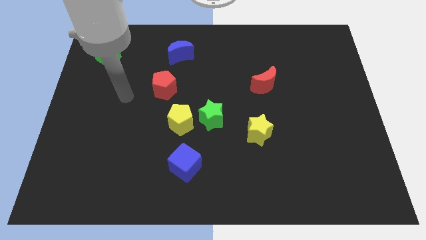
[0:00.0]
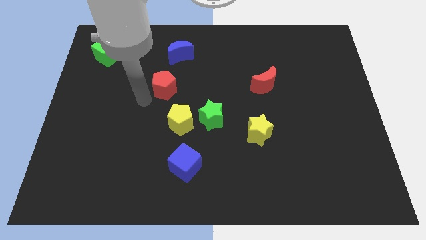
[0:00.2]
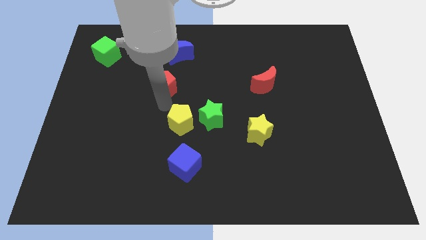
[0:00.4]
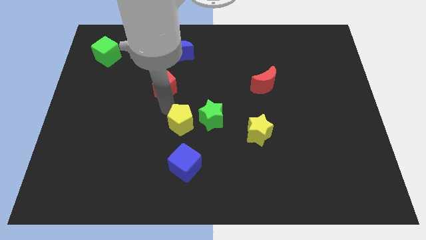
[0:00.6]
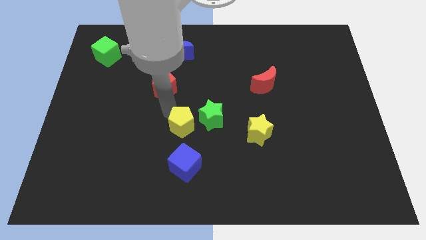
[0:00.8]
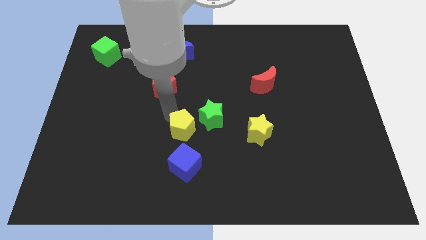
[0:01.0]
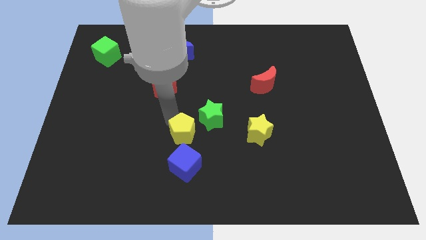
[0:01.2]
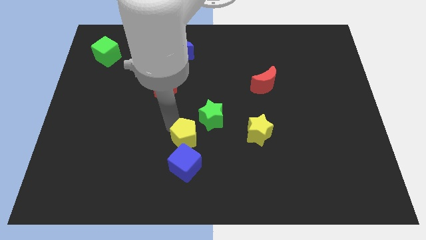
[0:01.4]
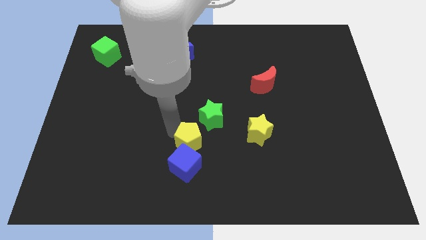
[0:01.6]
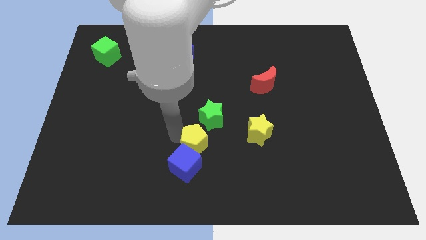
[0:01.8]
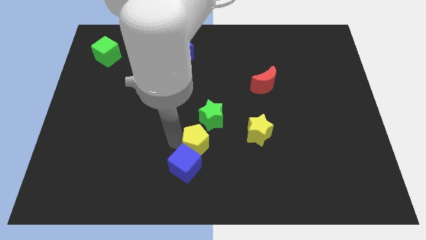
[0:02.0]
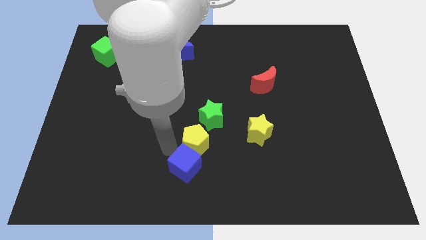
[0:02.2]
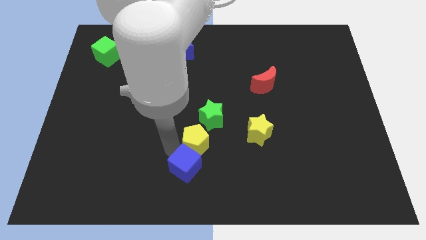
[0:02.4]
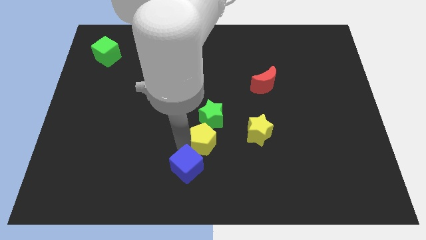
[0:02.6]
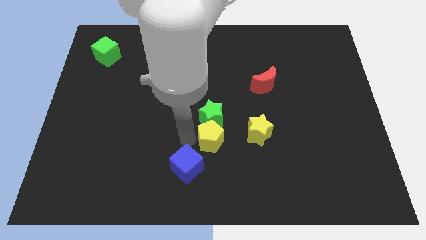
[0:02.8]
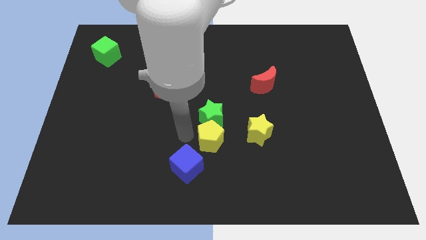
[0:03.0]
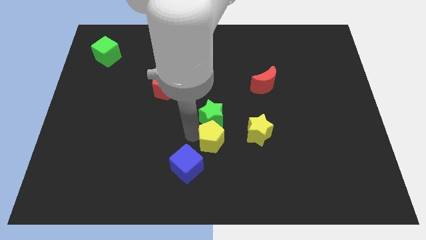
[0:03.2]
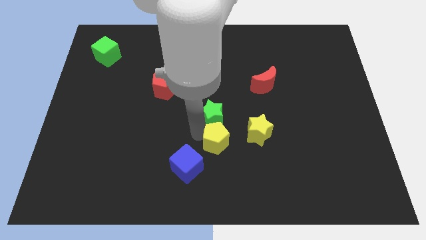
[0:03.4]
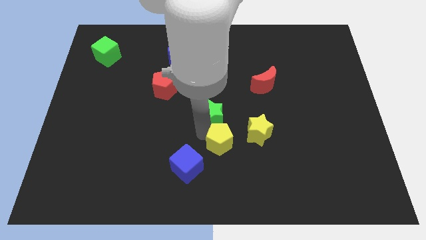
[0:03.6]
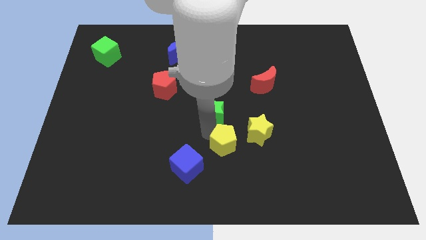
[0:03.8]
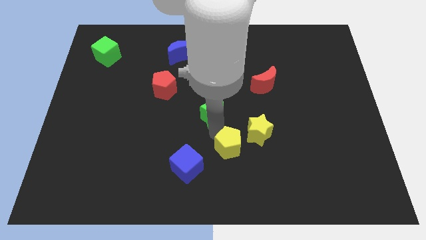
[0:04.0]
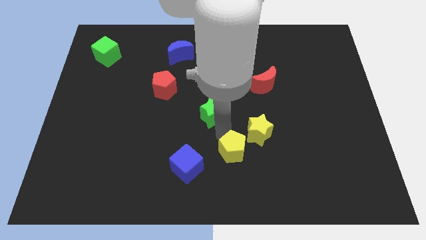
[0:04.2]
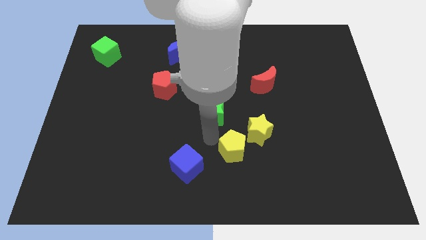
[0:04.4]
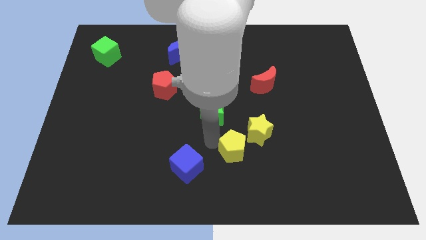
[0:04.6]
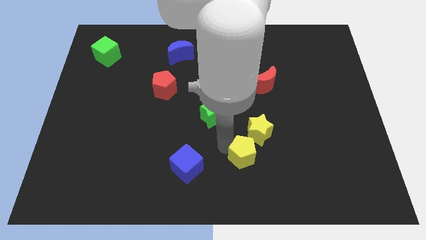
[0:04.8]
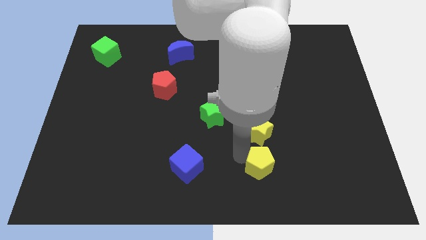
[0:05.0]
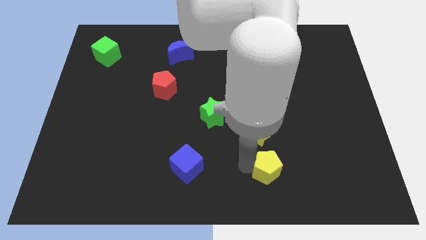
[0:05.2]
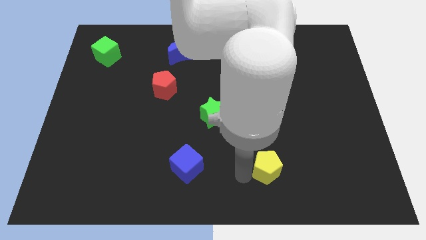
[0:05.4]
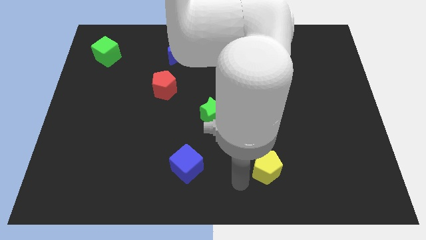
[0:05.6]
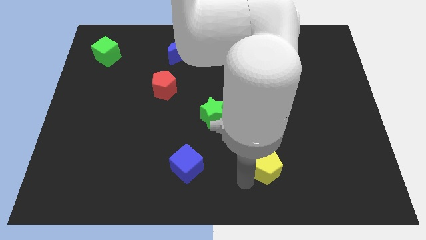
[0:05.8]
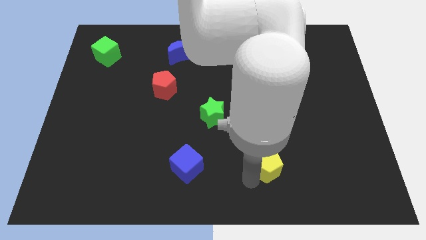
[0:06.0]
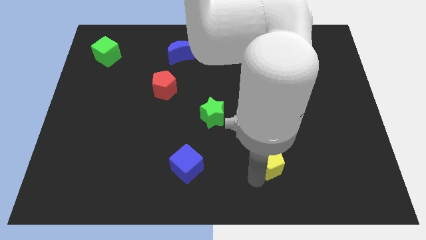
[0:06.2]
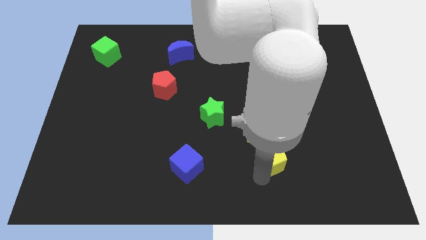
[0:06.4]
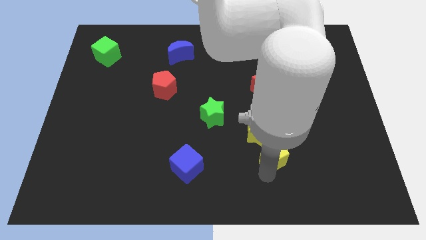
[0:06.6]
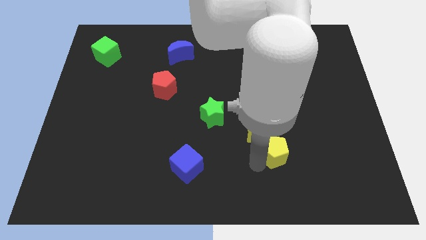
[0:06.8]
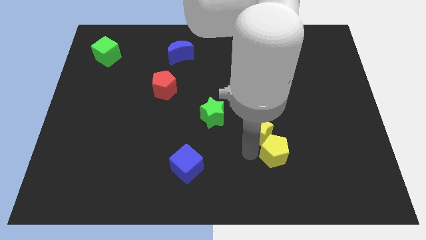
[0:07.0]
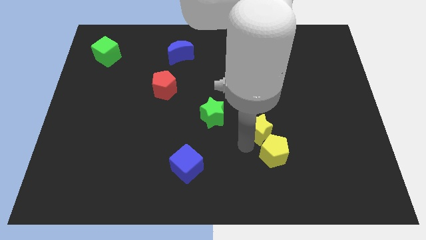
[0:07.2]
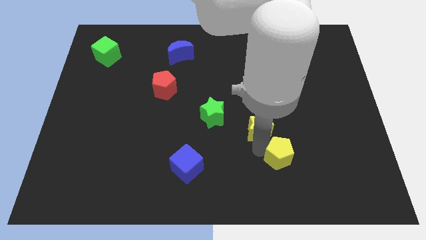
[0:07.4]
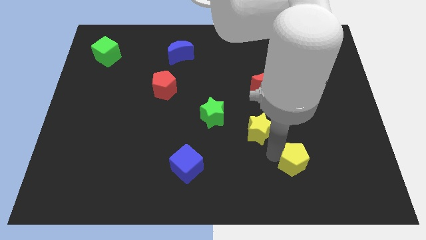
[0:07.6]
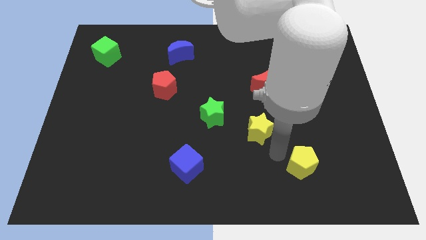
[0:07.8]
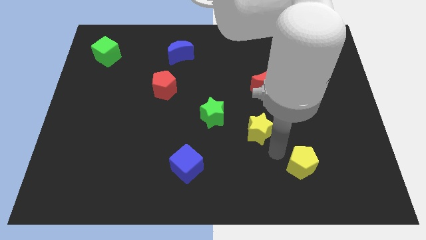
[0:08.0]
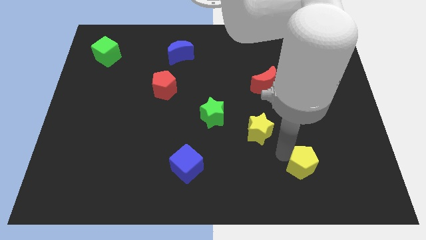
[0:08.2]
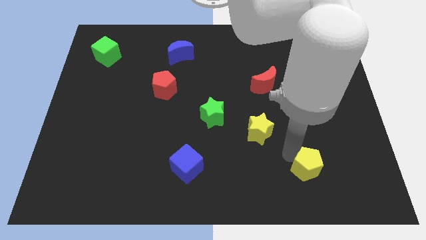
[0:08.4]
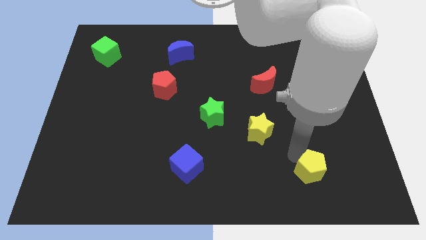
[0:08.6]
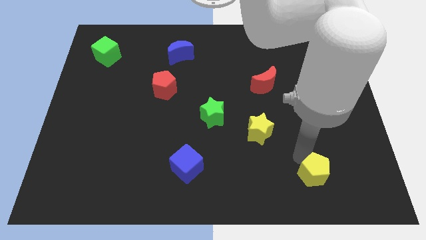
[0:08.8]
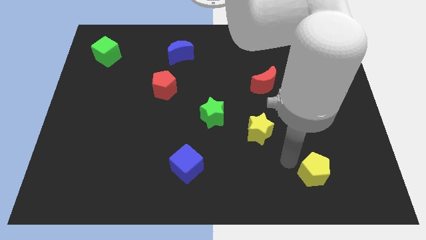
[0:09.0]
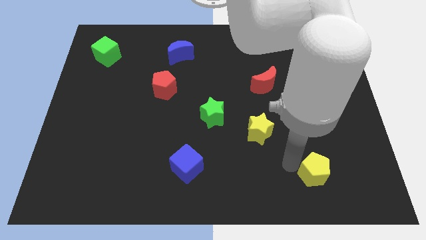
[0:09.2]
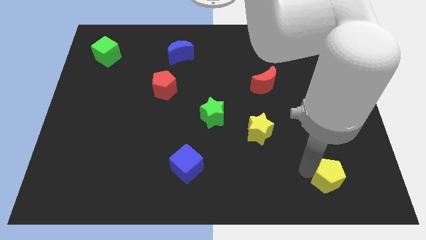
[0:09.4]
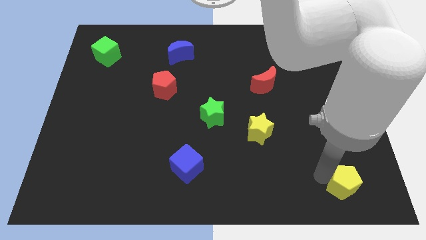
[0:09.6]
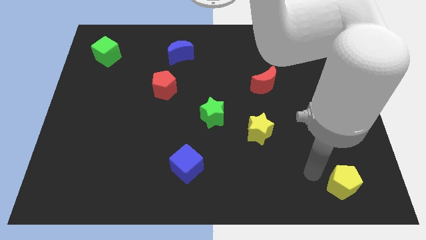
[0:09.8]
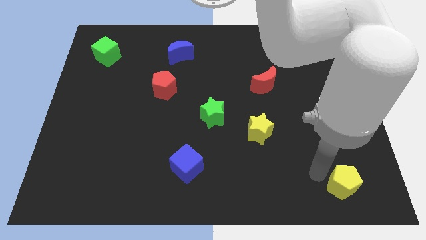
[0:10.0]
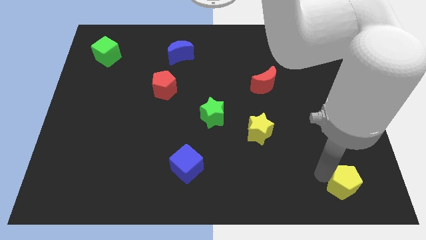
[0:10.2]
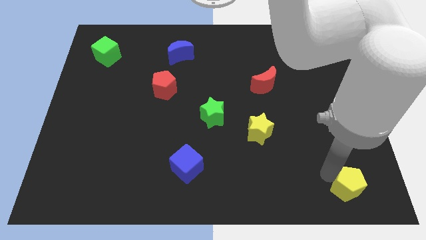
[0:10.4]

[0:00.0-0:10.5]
slide the yellow pentagon to the bottom right

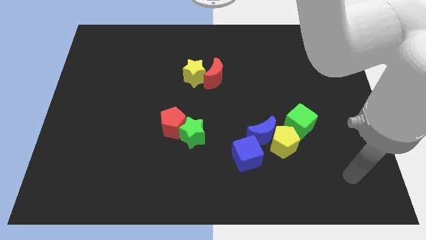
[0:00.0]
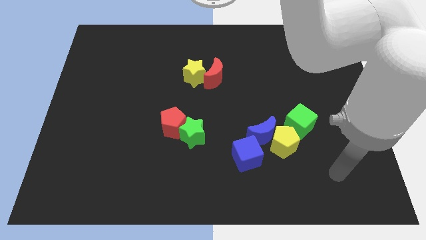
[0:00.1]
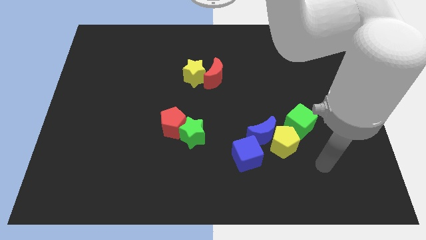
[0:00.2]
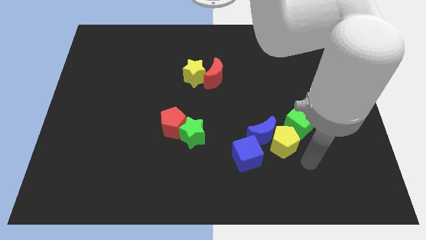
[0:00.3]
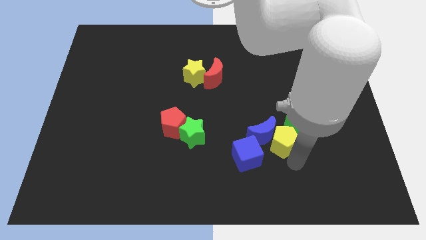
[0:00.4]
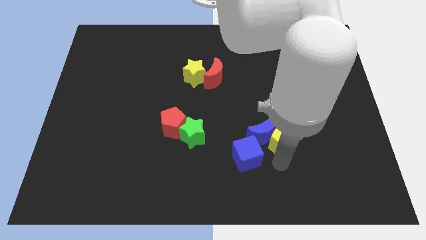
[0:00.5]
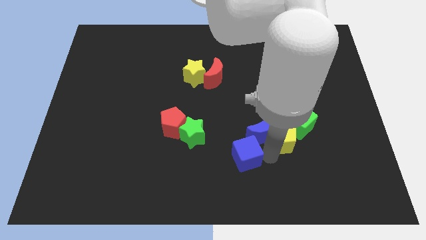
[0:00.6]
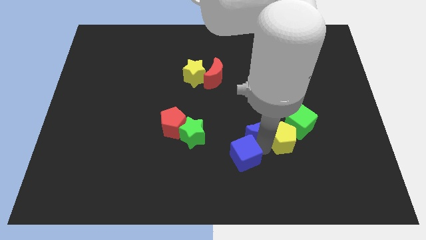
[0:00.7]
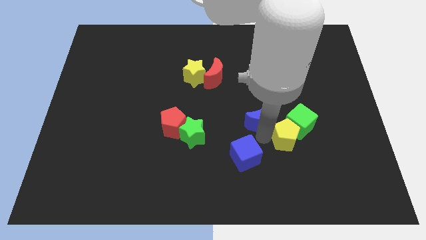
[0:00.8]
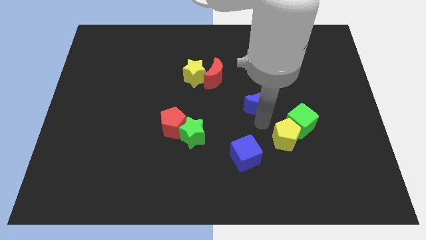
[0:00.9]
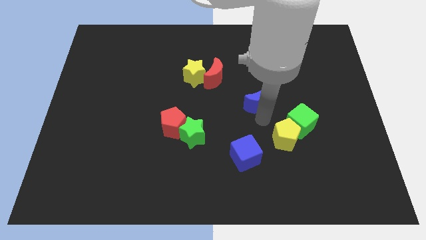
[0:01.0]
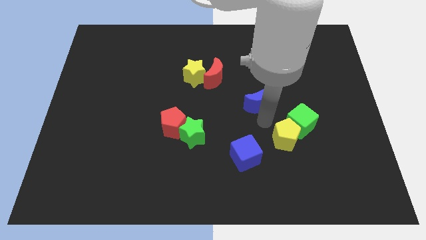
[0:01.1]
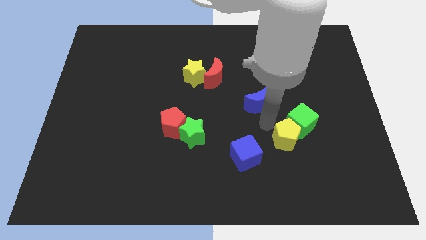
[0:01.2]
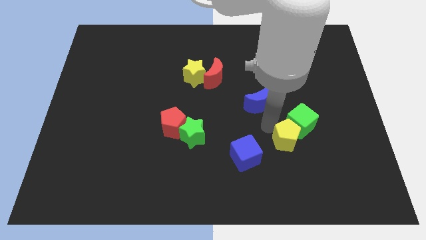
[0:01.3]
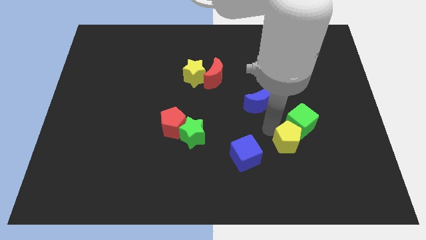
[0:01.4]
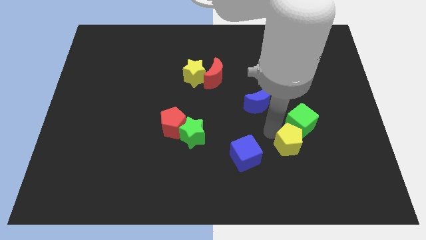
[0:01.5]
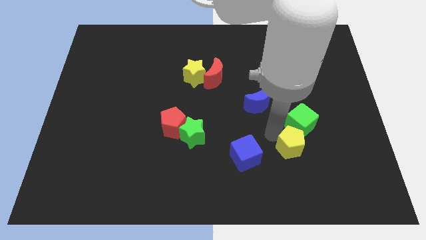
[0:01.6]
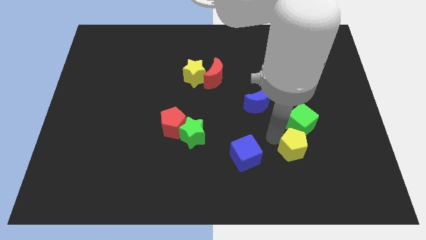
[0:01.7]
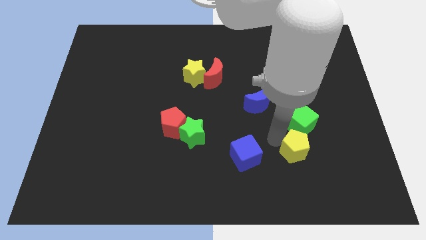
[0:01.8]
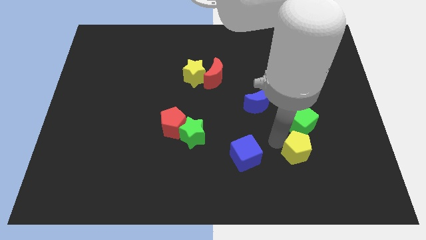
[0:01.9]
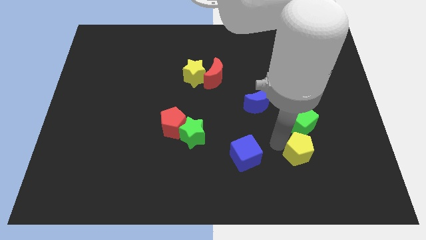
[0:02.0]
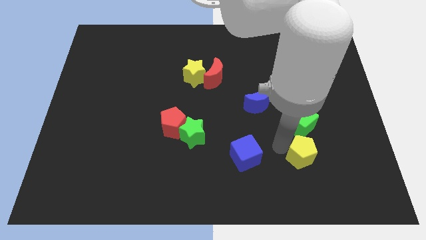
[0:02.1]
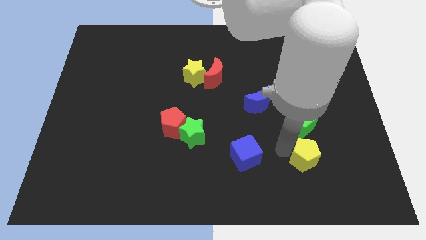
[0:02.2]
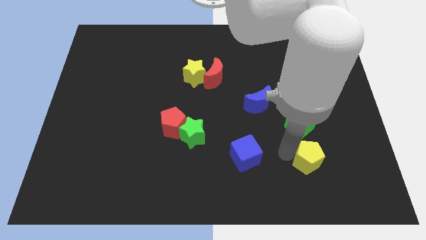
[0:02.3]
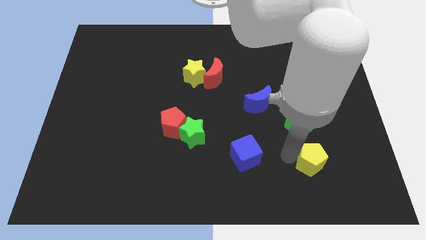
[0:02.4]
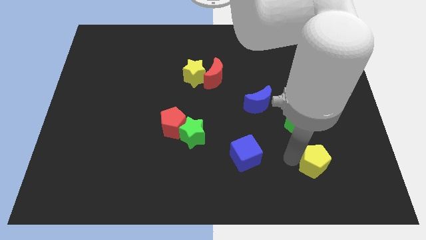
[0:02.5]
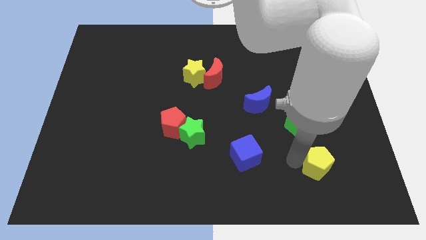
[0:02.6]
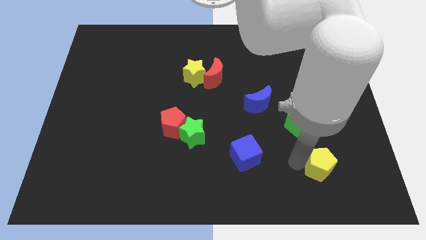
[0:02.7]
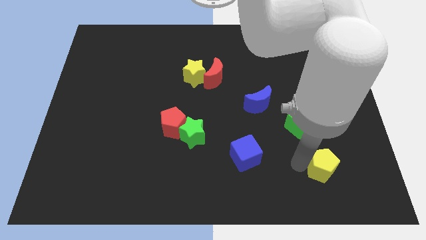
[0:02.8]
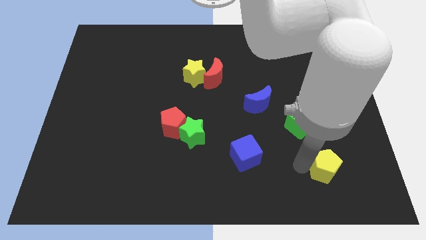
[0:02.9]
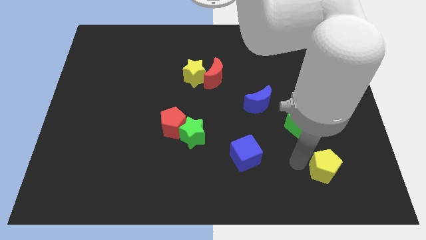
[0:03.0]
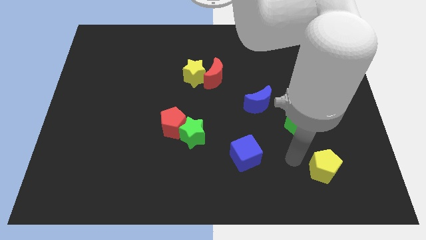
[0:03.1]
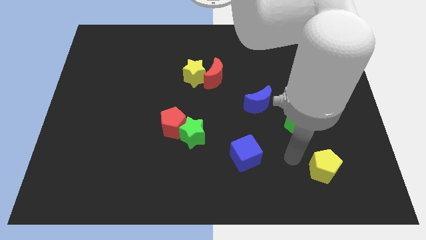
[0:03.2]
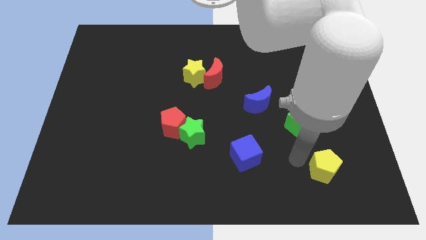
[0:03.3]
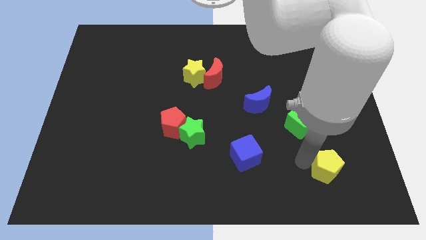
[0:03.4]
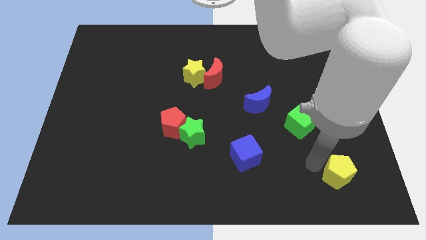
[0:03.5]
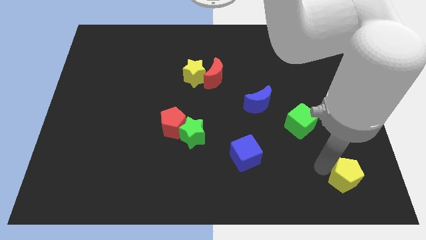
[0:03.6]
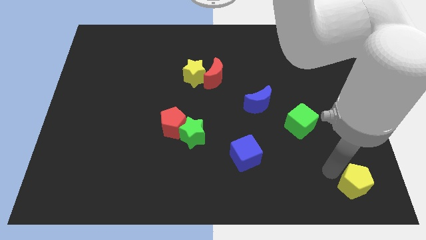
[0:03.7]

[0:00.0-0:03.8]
put the yellow pentagon to the bottom right
